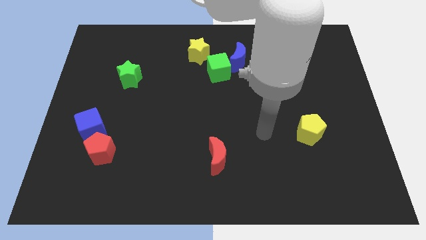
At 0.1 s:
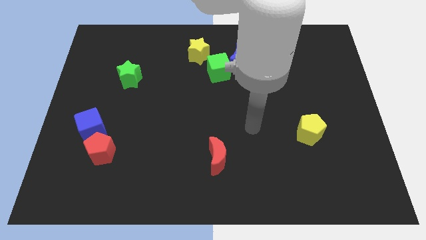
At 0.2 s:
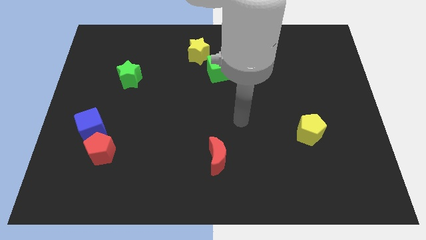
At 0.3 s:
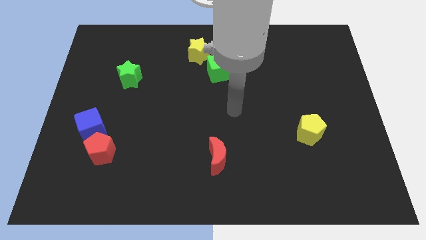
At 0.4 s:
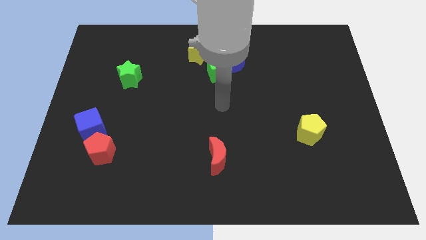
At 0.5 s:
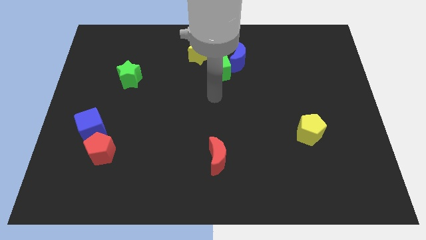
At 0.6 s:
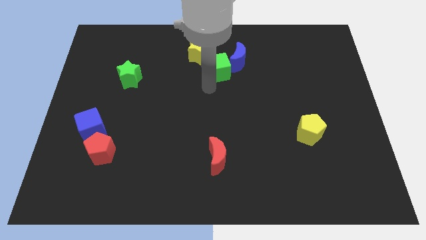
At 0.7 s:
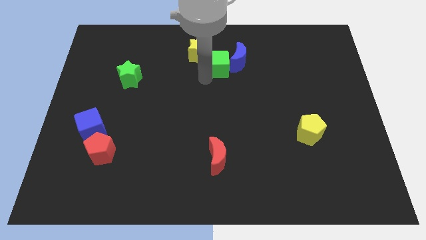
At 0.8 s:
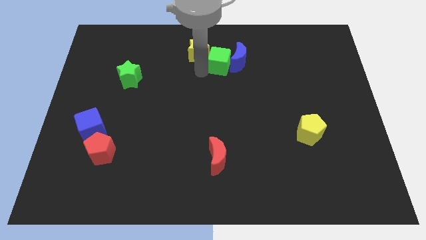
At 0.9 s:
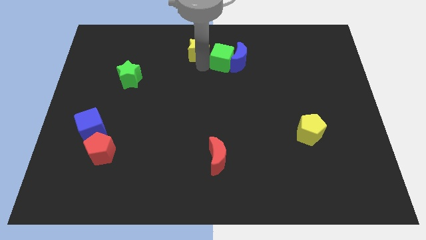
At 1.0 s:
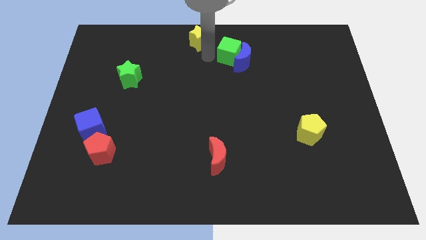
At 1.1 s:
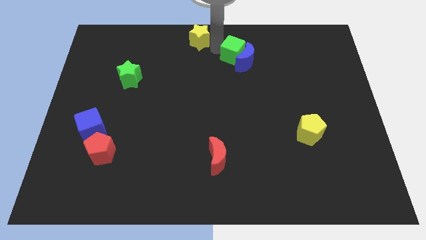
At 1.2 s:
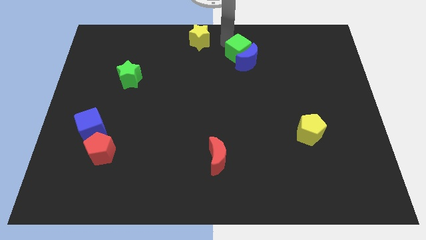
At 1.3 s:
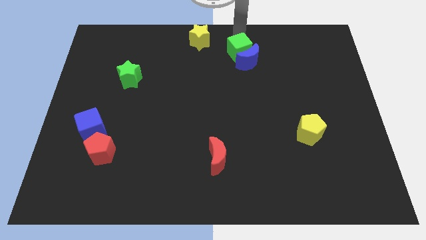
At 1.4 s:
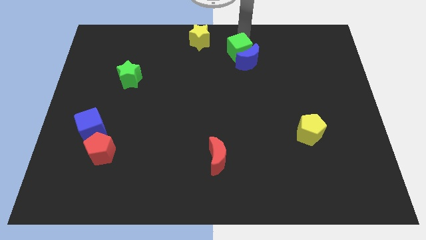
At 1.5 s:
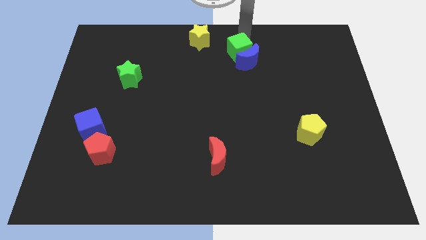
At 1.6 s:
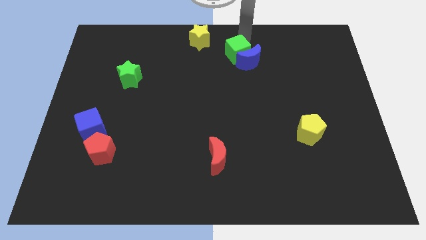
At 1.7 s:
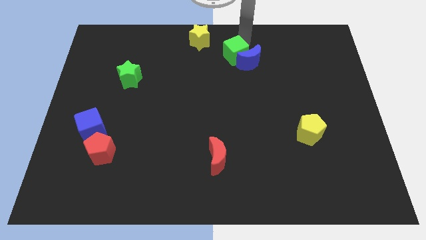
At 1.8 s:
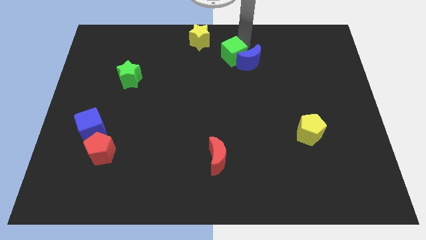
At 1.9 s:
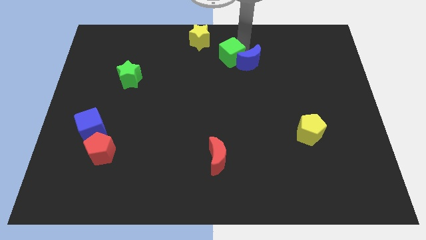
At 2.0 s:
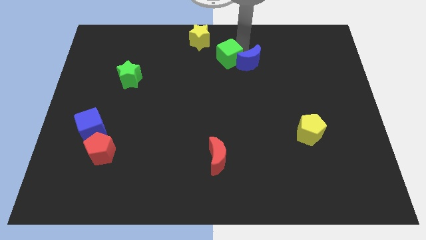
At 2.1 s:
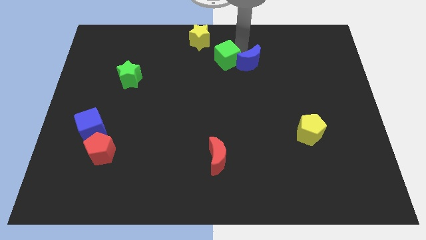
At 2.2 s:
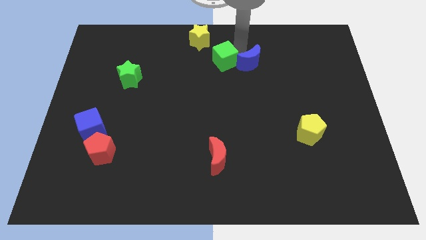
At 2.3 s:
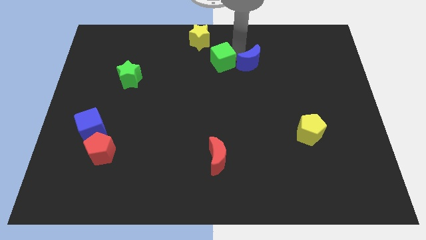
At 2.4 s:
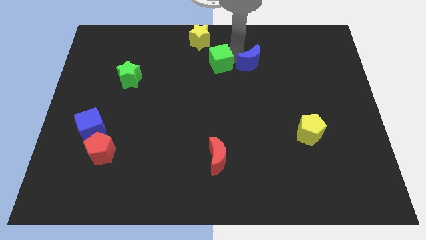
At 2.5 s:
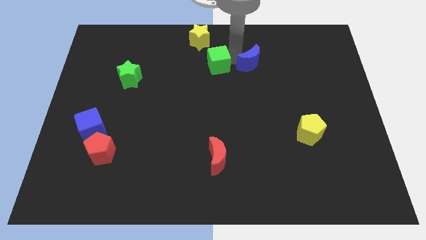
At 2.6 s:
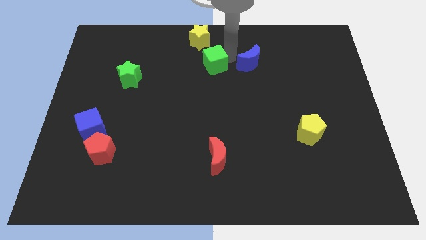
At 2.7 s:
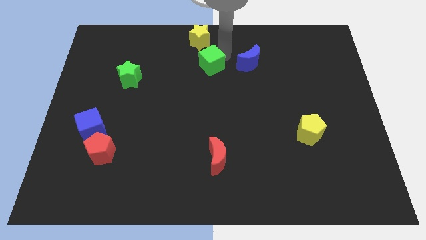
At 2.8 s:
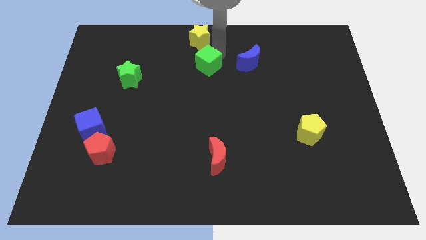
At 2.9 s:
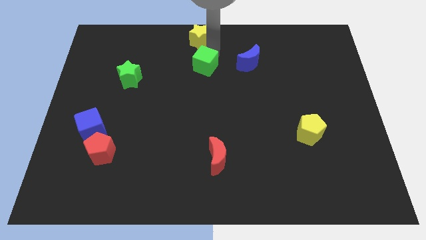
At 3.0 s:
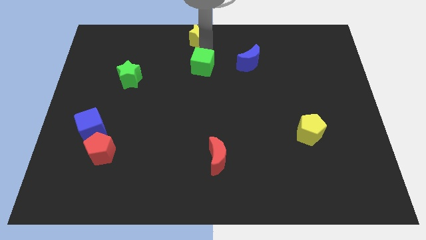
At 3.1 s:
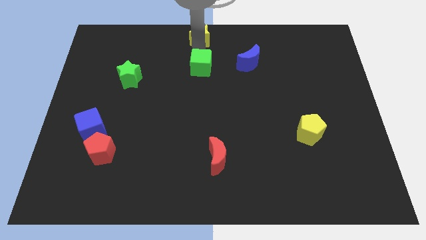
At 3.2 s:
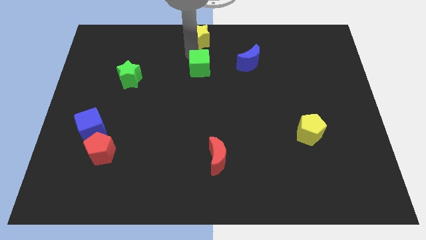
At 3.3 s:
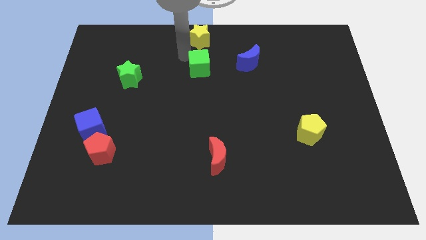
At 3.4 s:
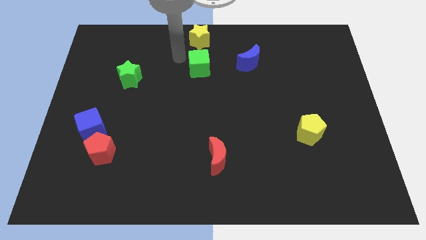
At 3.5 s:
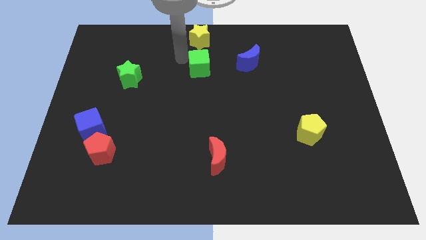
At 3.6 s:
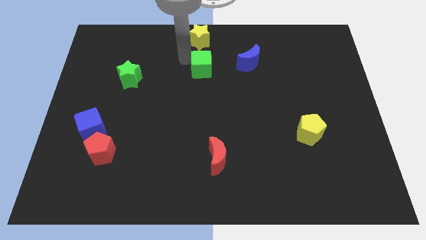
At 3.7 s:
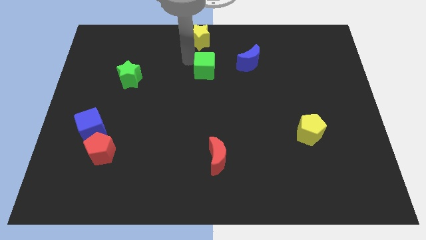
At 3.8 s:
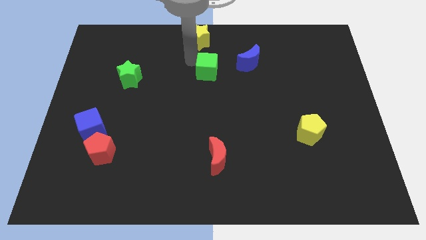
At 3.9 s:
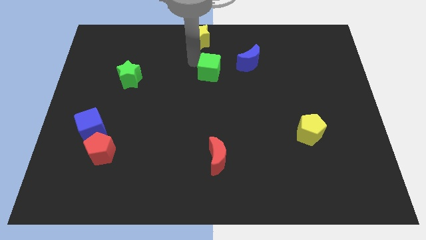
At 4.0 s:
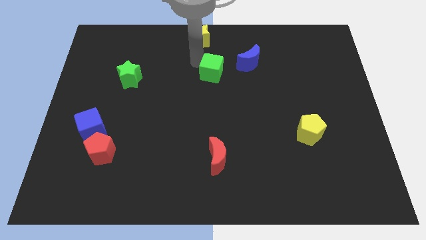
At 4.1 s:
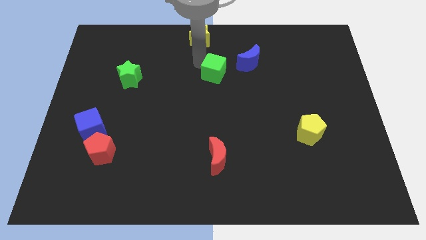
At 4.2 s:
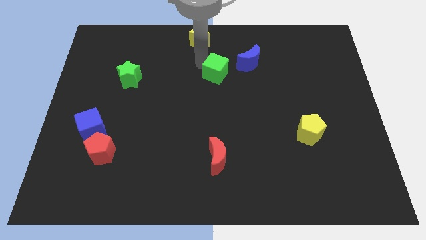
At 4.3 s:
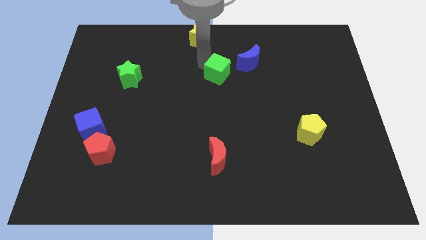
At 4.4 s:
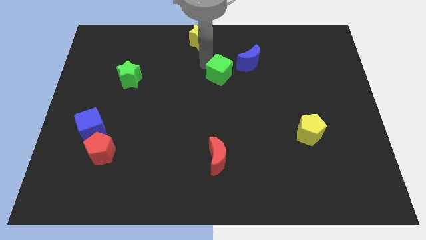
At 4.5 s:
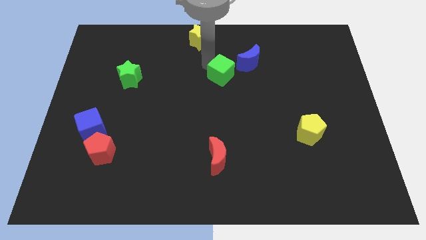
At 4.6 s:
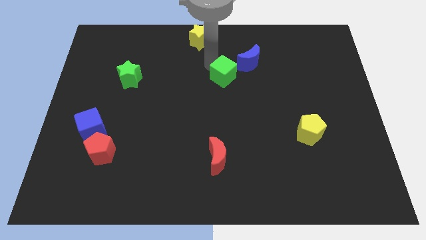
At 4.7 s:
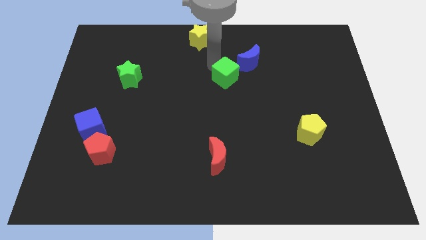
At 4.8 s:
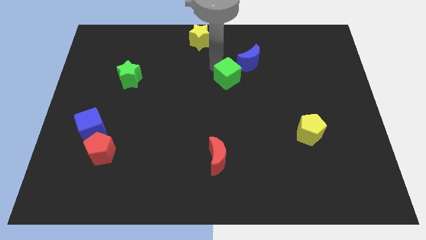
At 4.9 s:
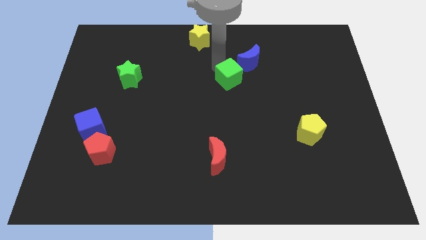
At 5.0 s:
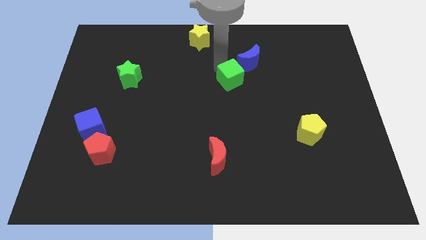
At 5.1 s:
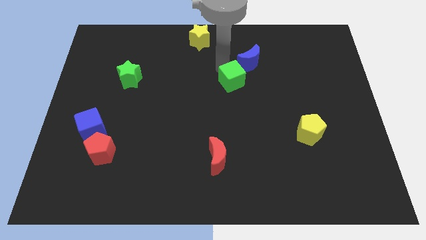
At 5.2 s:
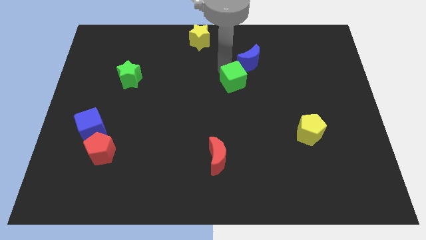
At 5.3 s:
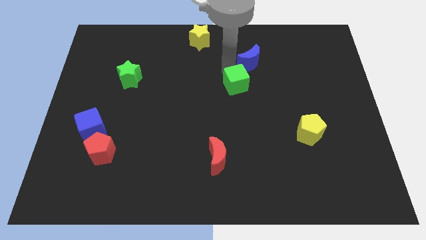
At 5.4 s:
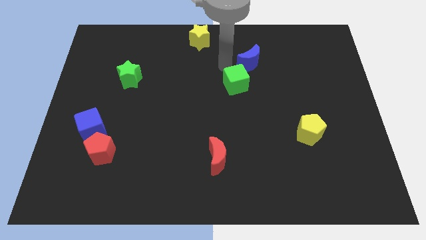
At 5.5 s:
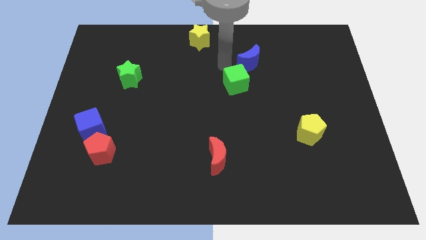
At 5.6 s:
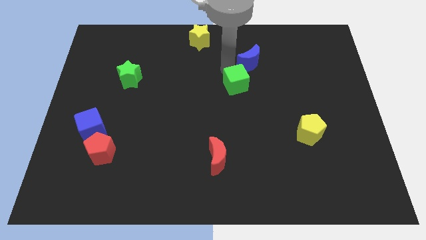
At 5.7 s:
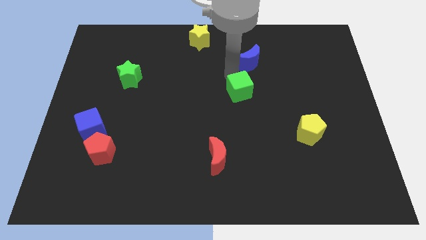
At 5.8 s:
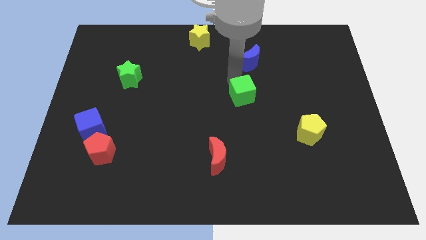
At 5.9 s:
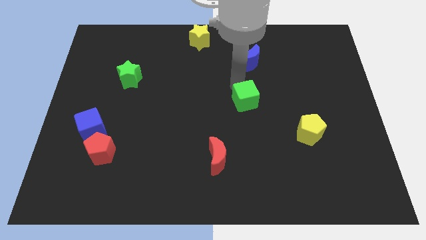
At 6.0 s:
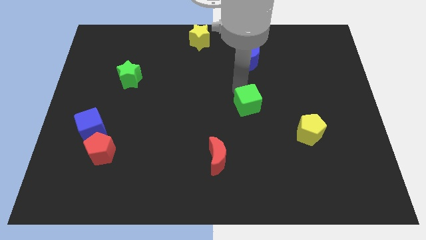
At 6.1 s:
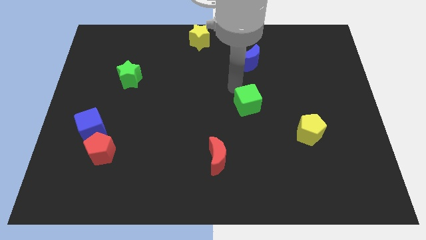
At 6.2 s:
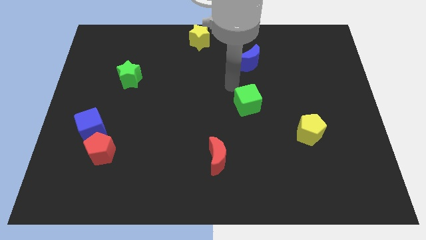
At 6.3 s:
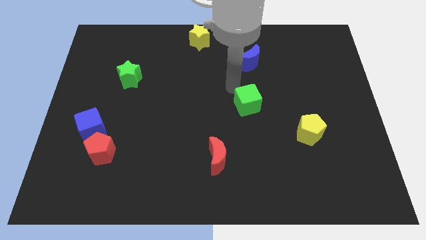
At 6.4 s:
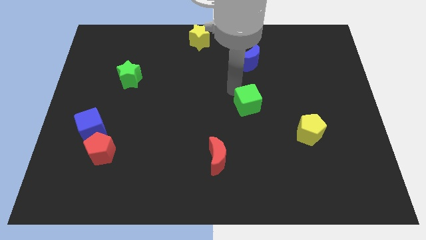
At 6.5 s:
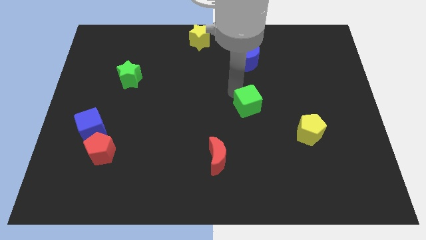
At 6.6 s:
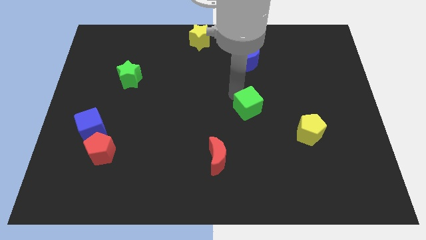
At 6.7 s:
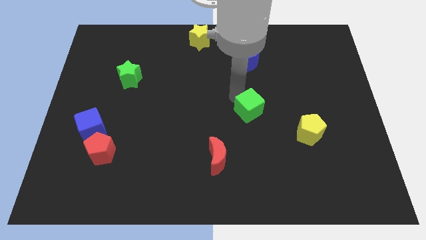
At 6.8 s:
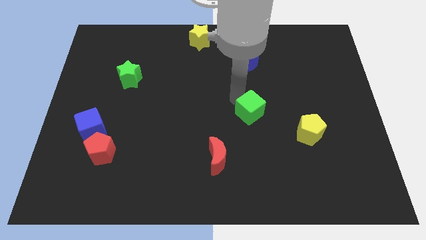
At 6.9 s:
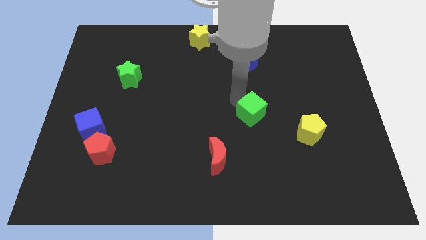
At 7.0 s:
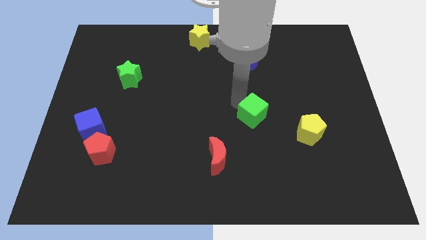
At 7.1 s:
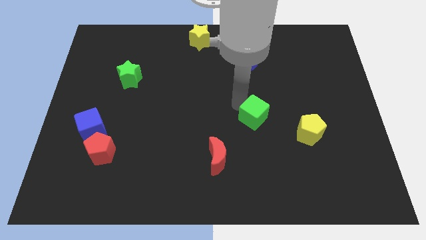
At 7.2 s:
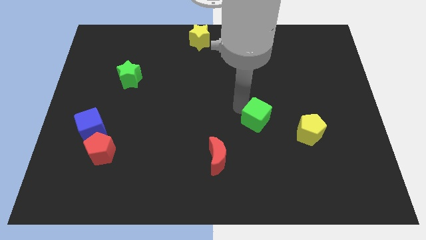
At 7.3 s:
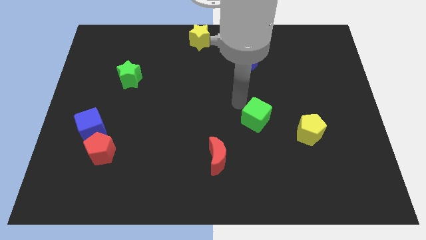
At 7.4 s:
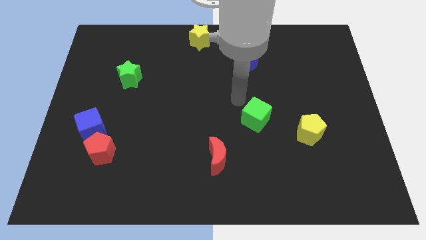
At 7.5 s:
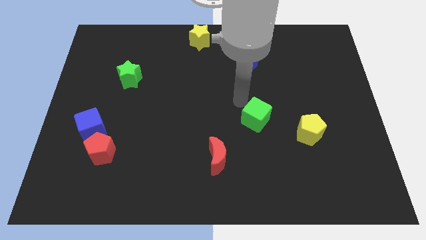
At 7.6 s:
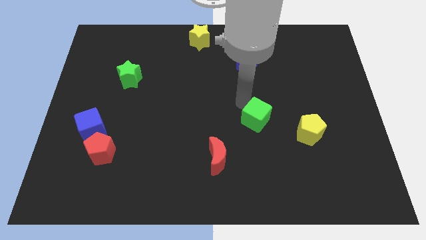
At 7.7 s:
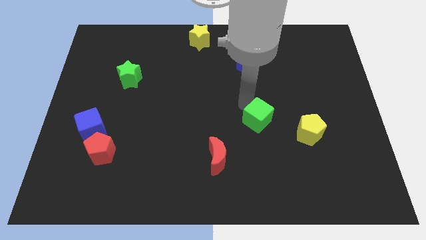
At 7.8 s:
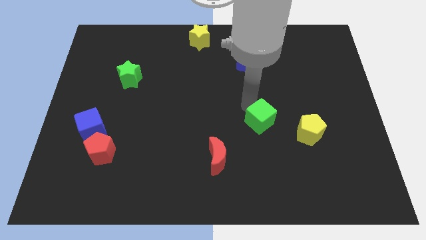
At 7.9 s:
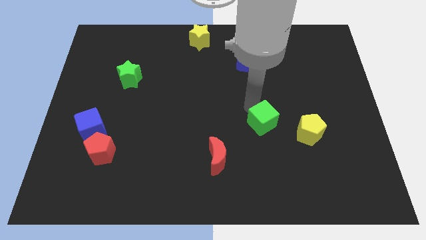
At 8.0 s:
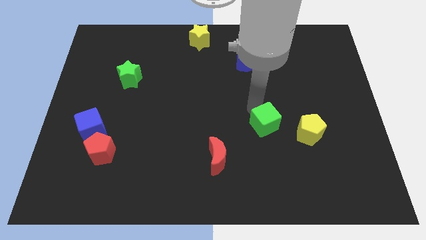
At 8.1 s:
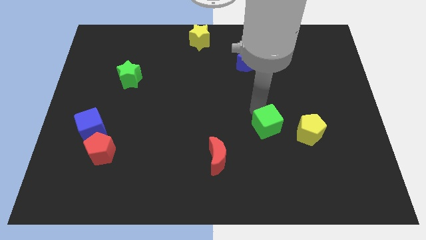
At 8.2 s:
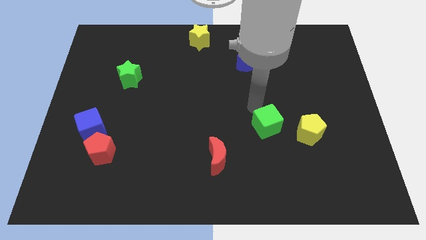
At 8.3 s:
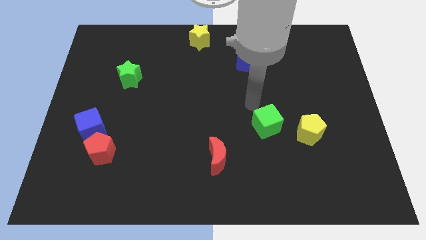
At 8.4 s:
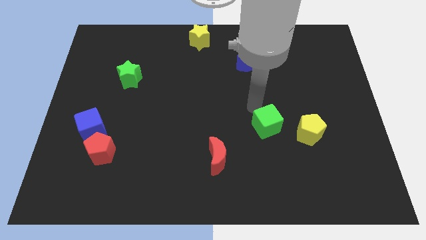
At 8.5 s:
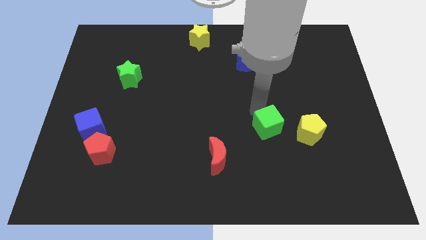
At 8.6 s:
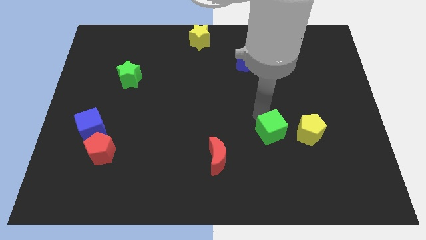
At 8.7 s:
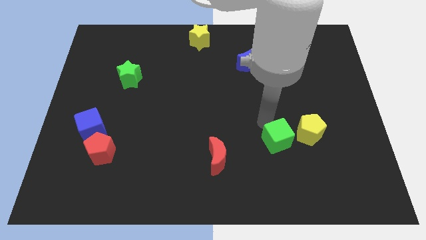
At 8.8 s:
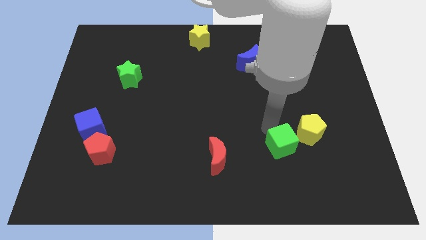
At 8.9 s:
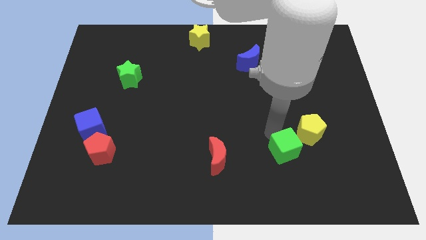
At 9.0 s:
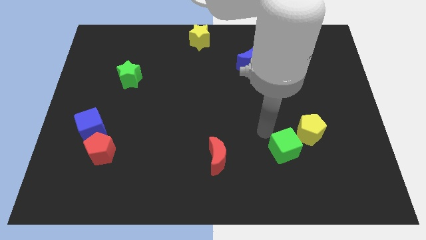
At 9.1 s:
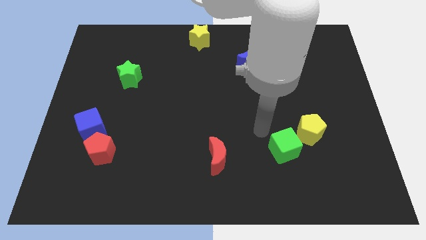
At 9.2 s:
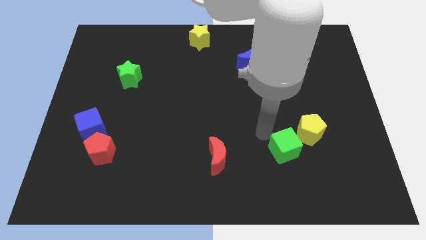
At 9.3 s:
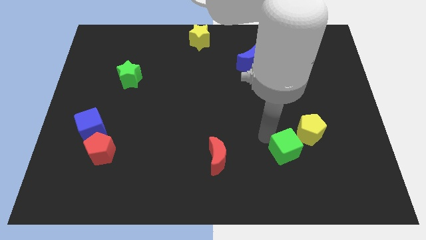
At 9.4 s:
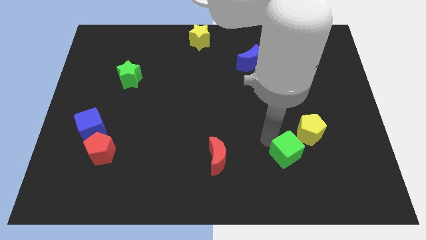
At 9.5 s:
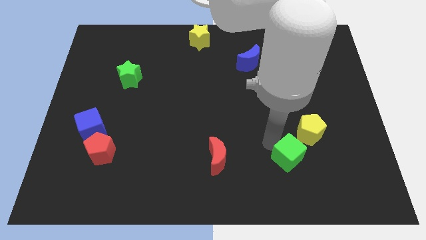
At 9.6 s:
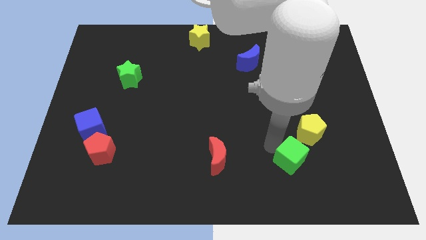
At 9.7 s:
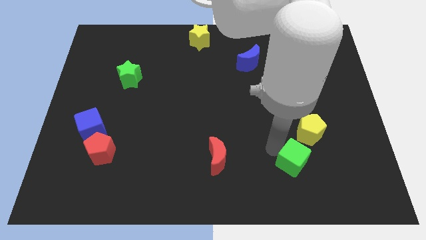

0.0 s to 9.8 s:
put the green cube to the bottom side of the yellow pentagon
